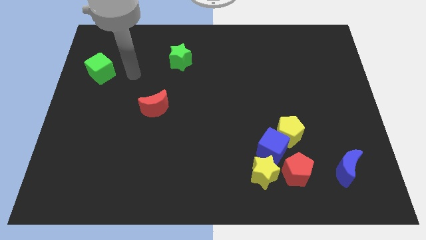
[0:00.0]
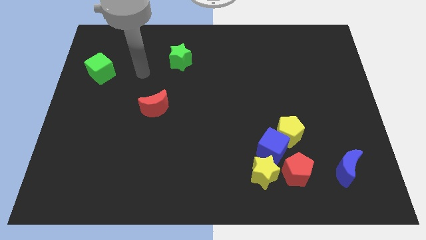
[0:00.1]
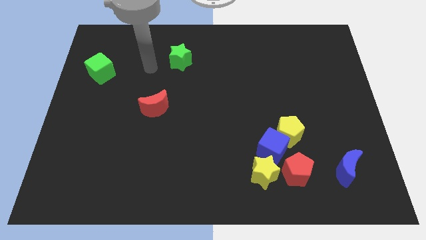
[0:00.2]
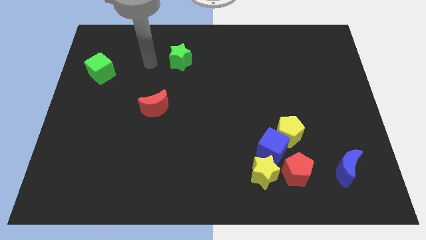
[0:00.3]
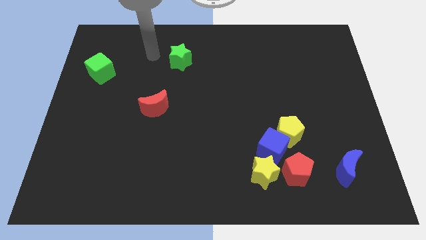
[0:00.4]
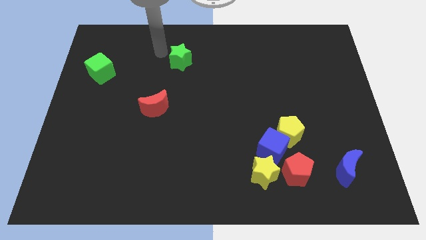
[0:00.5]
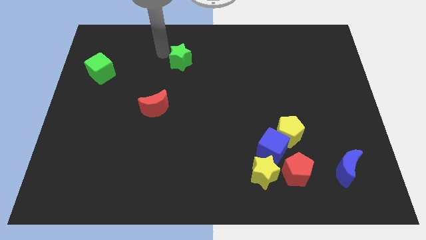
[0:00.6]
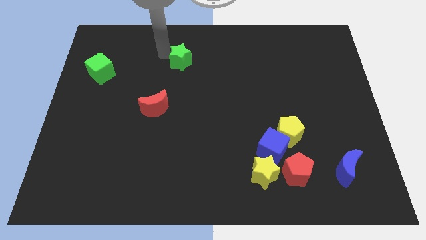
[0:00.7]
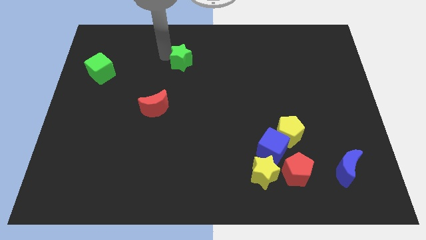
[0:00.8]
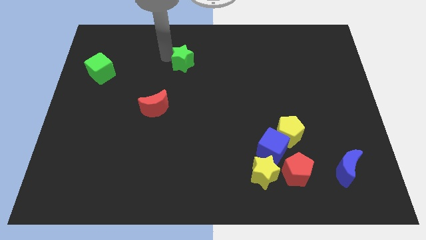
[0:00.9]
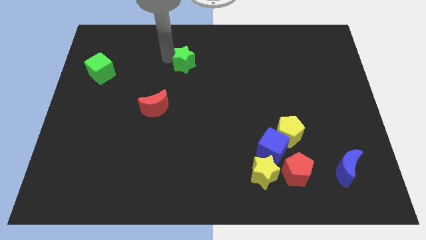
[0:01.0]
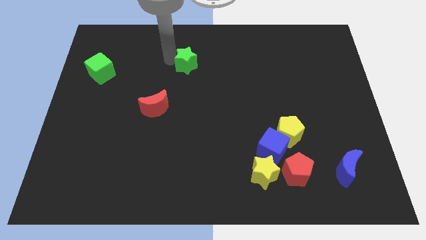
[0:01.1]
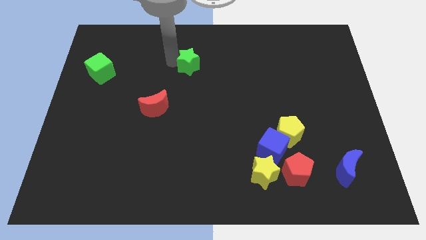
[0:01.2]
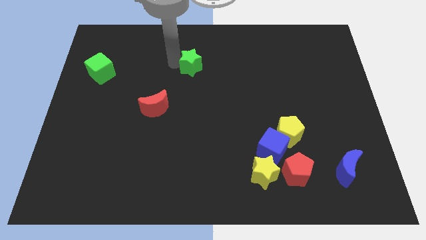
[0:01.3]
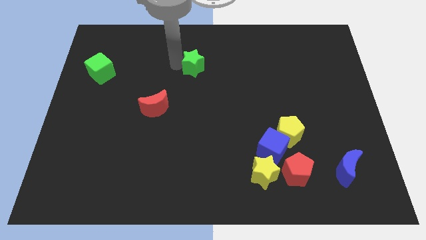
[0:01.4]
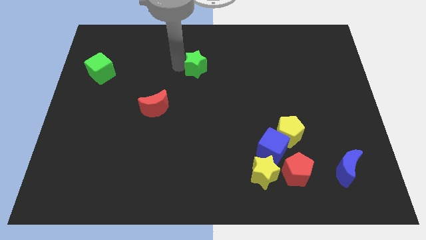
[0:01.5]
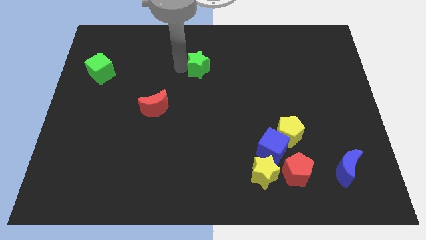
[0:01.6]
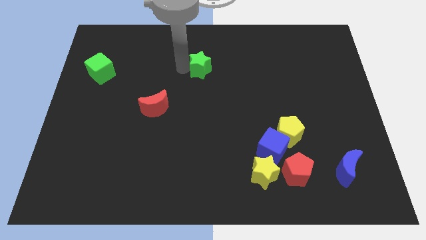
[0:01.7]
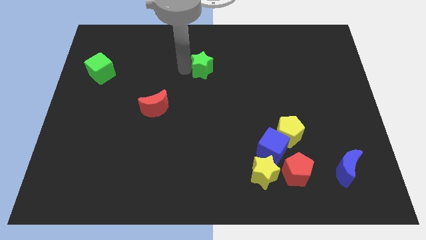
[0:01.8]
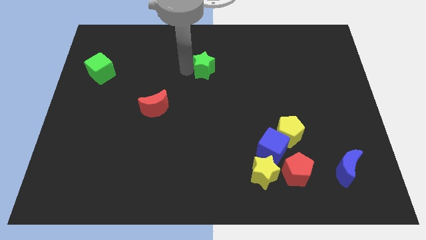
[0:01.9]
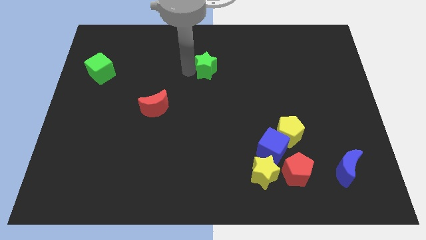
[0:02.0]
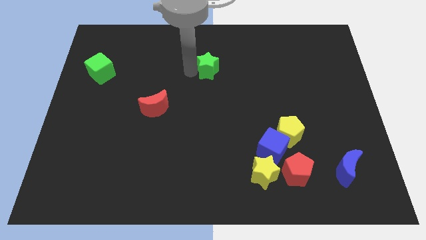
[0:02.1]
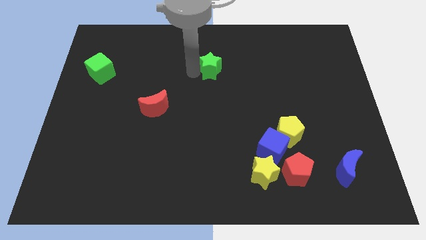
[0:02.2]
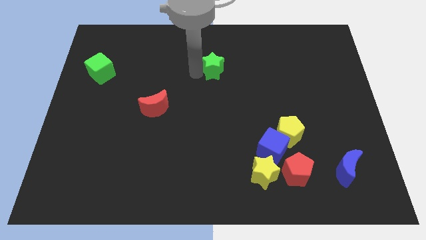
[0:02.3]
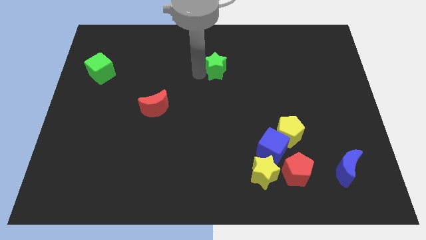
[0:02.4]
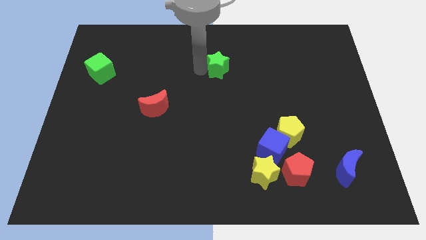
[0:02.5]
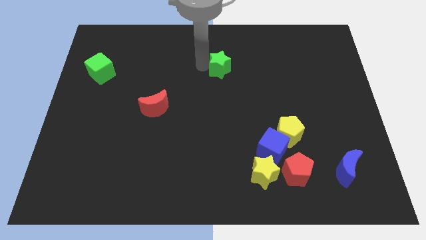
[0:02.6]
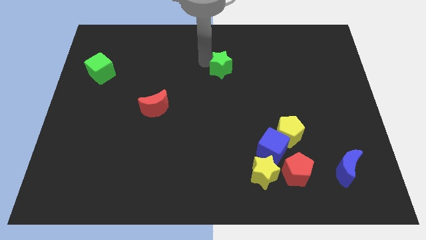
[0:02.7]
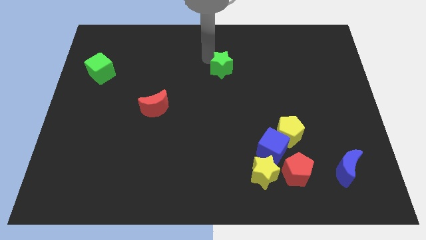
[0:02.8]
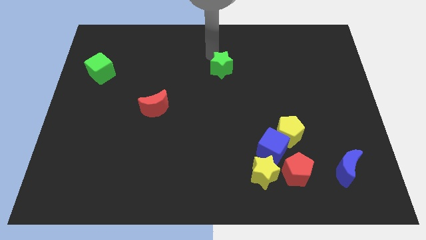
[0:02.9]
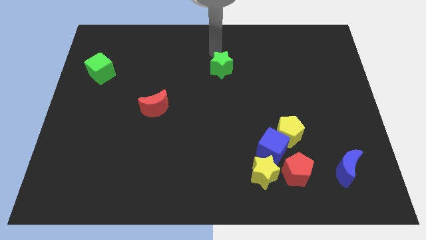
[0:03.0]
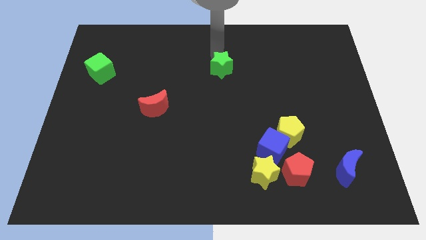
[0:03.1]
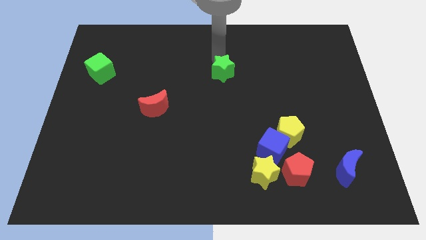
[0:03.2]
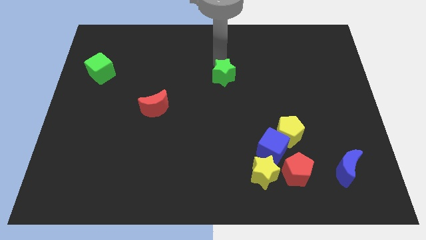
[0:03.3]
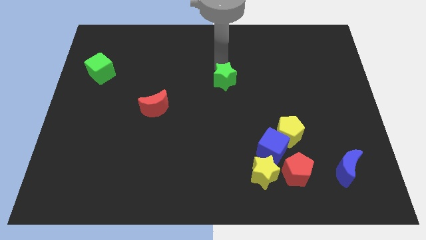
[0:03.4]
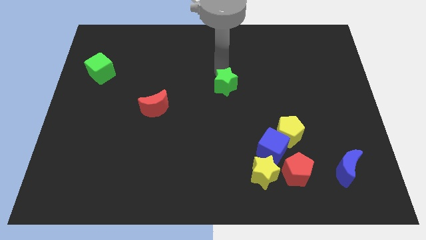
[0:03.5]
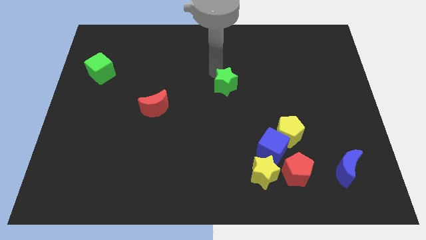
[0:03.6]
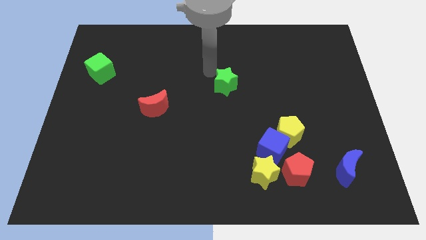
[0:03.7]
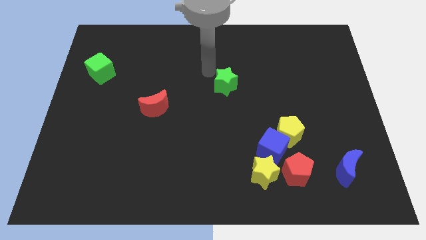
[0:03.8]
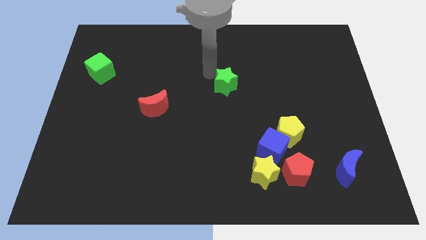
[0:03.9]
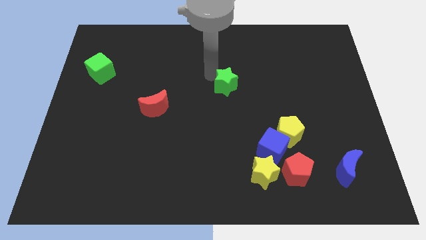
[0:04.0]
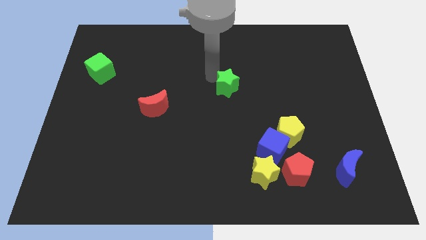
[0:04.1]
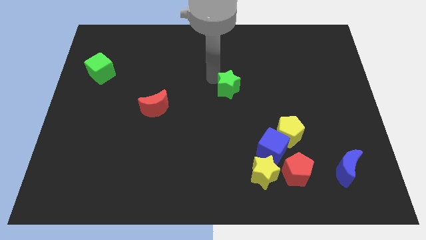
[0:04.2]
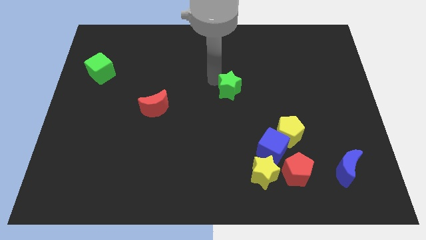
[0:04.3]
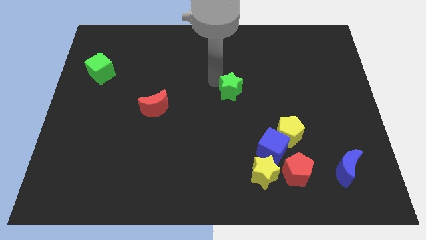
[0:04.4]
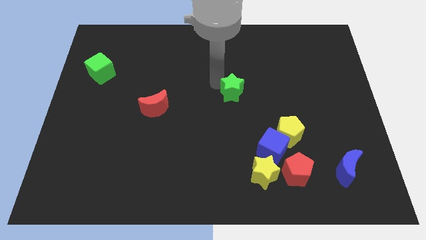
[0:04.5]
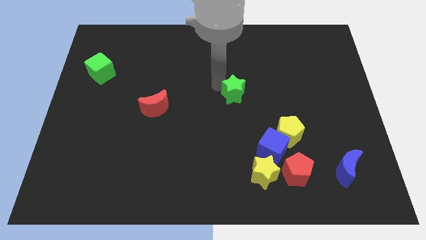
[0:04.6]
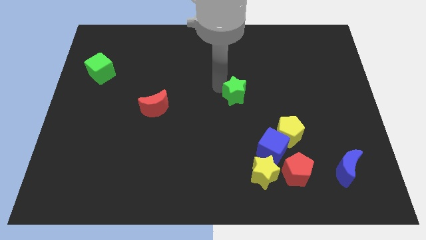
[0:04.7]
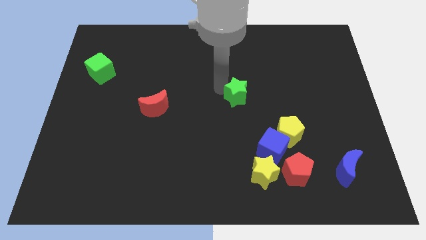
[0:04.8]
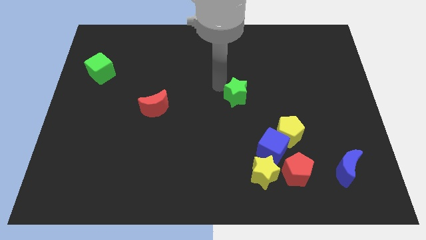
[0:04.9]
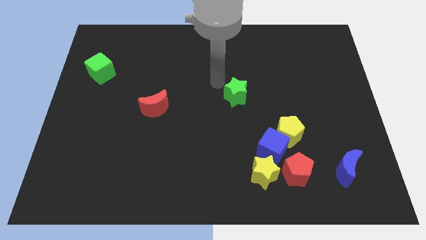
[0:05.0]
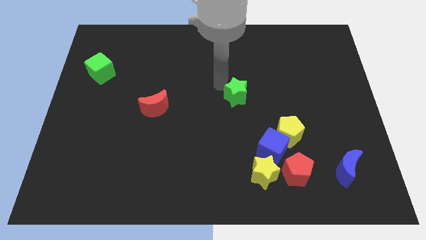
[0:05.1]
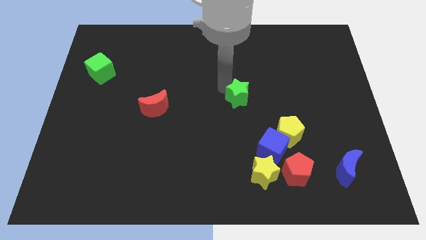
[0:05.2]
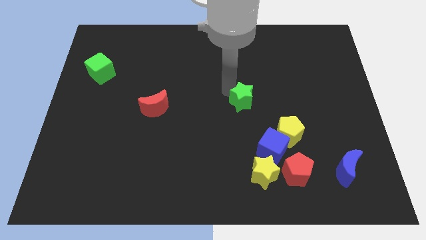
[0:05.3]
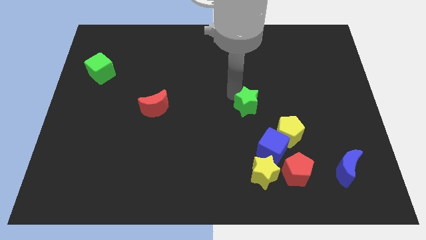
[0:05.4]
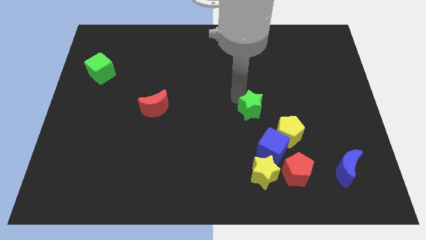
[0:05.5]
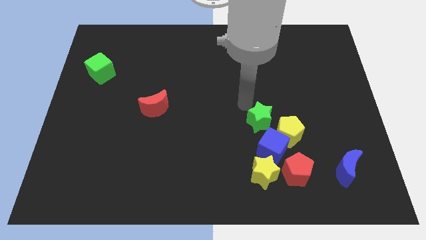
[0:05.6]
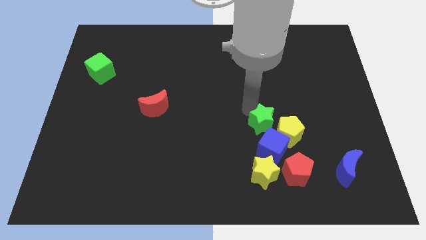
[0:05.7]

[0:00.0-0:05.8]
slide the green star close to the yellow pentagon

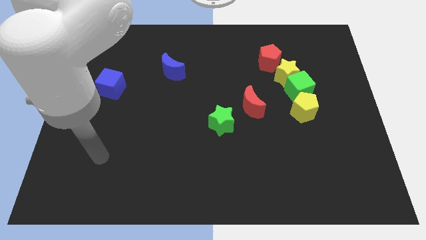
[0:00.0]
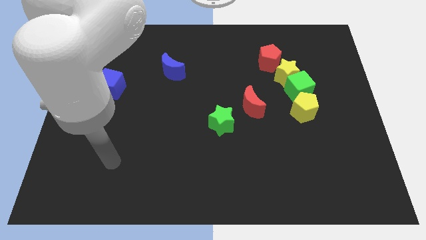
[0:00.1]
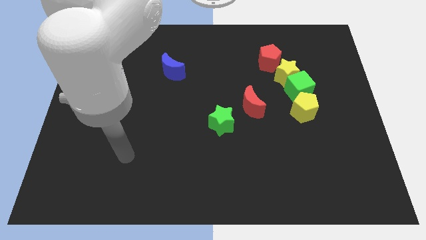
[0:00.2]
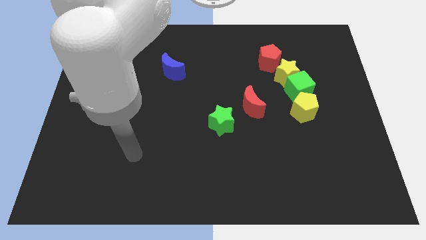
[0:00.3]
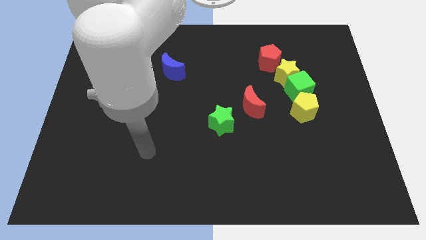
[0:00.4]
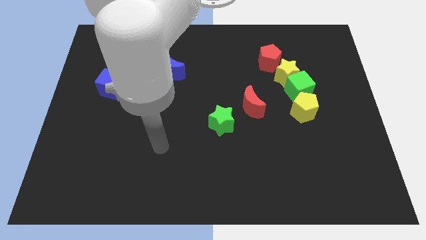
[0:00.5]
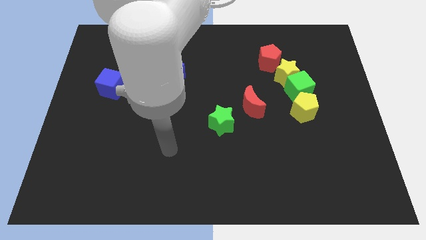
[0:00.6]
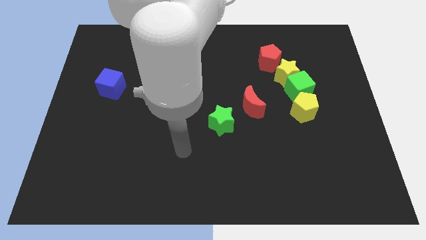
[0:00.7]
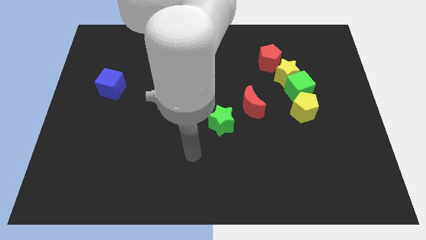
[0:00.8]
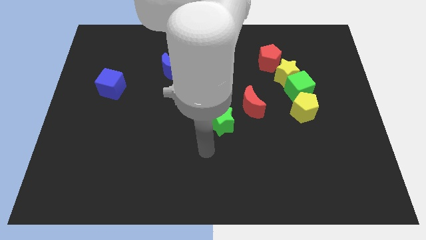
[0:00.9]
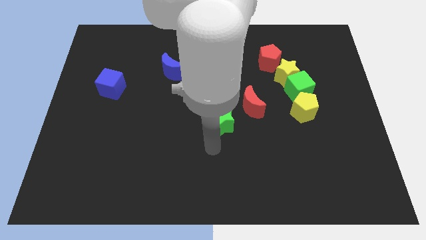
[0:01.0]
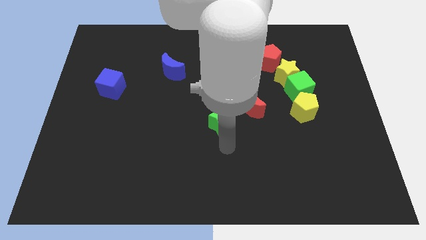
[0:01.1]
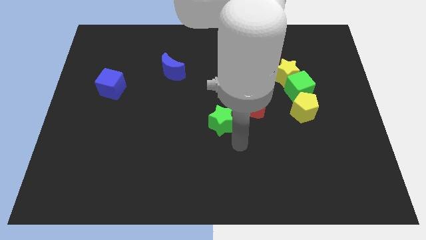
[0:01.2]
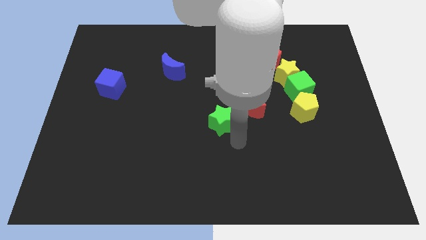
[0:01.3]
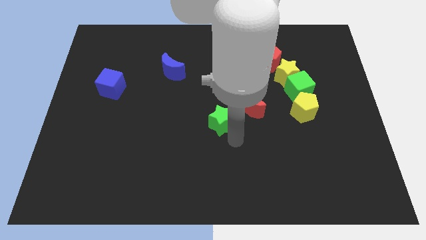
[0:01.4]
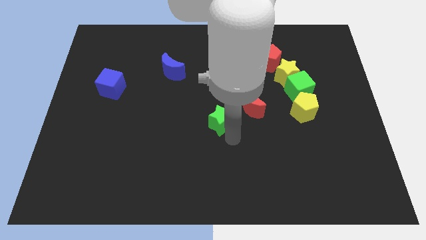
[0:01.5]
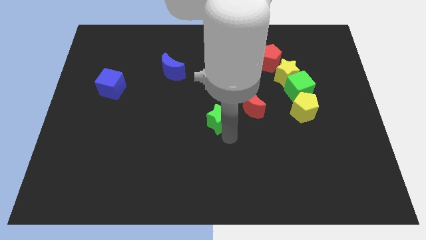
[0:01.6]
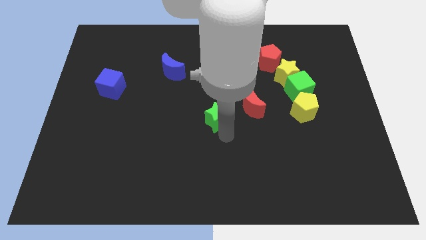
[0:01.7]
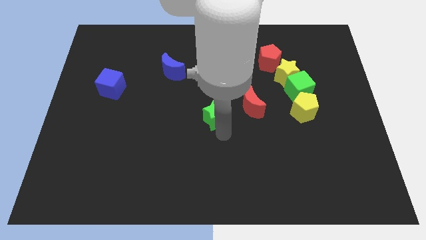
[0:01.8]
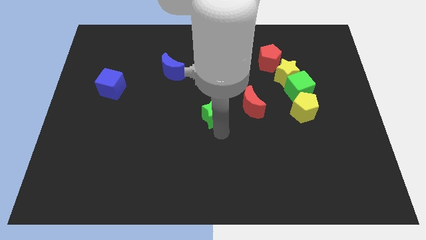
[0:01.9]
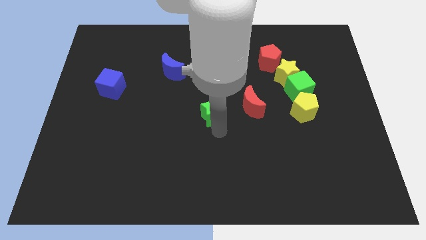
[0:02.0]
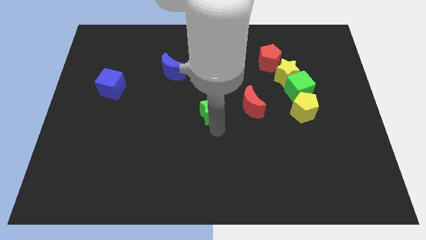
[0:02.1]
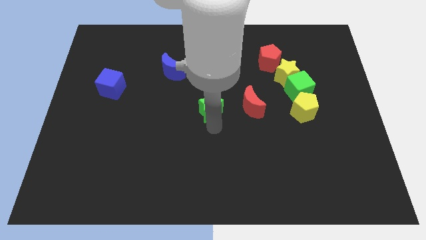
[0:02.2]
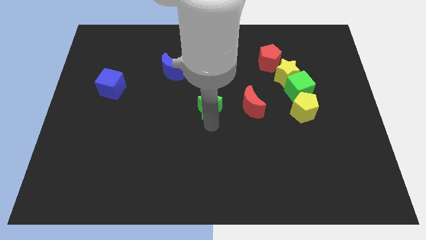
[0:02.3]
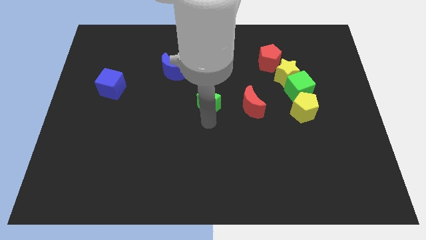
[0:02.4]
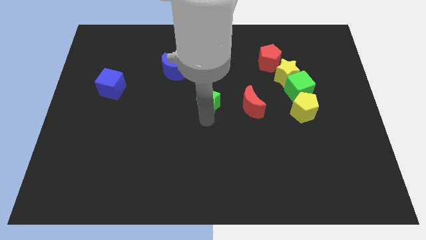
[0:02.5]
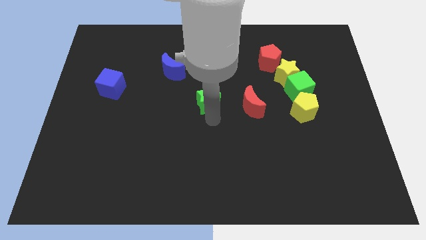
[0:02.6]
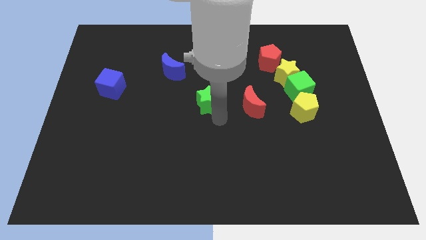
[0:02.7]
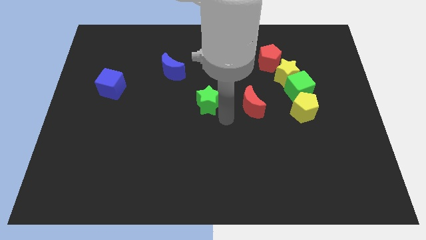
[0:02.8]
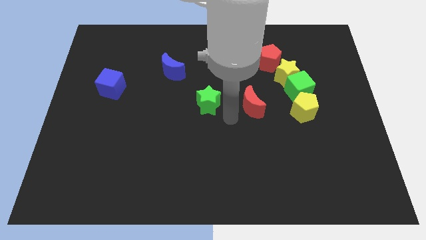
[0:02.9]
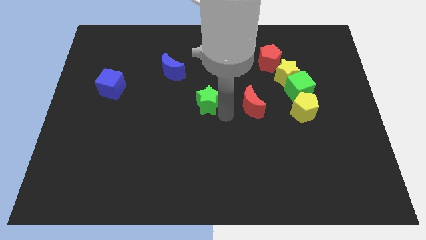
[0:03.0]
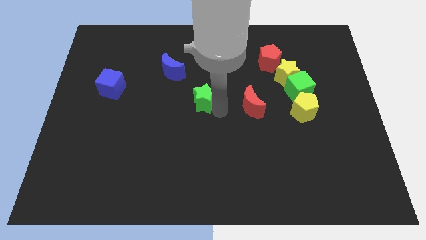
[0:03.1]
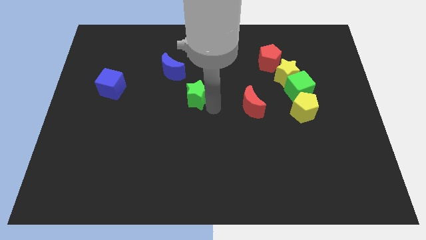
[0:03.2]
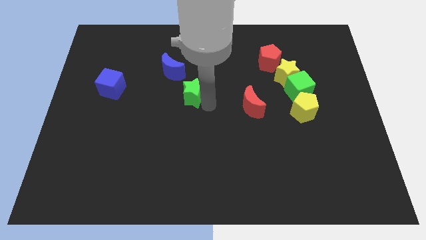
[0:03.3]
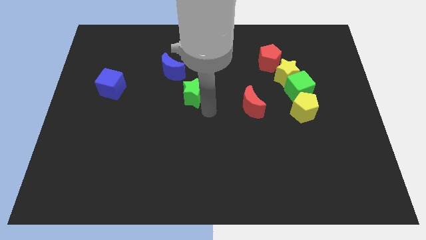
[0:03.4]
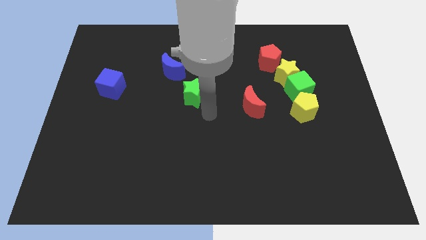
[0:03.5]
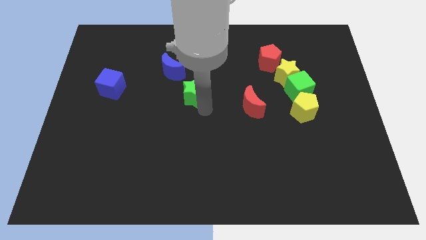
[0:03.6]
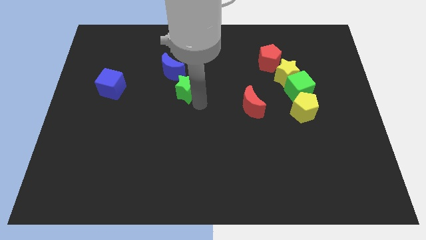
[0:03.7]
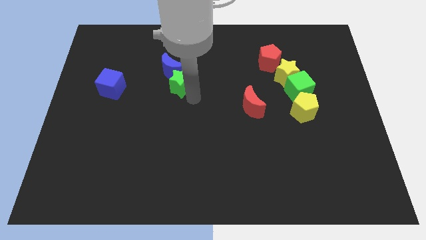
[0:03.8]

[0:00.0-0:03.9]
slide the green star close to the blue moon
